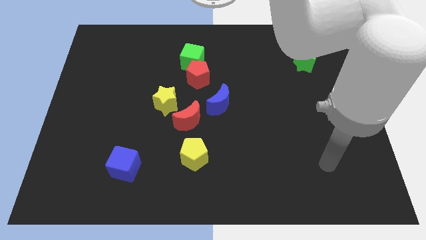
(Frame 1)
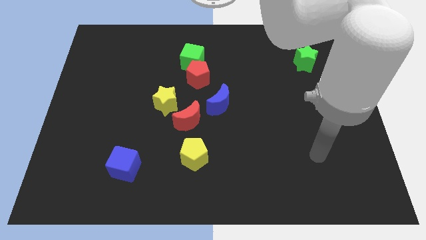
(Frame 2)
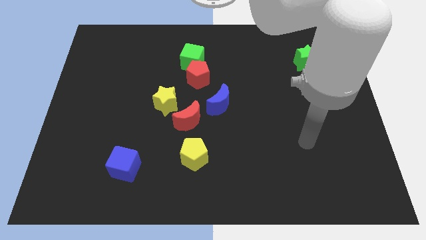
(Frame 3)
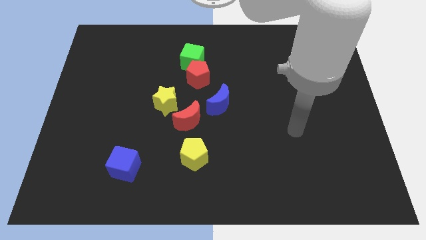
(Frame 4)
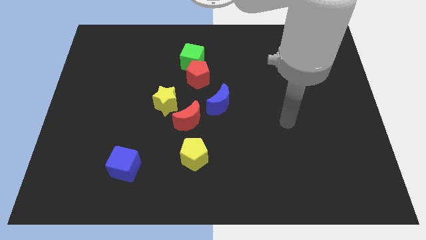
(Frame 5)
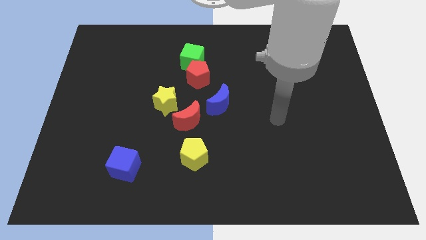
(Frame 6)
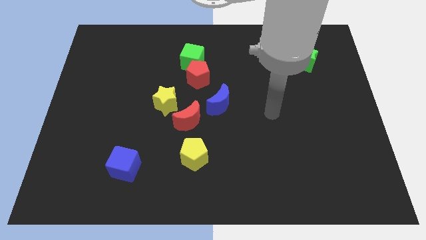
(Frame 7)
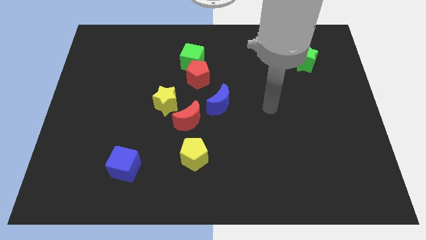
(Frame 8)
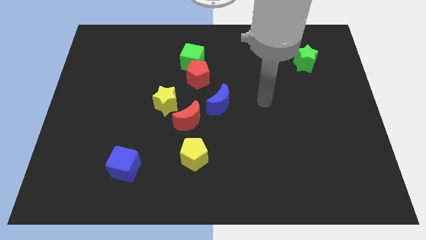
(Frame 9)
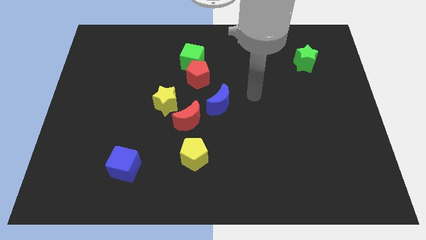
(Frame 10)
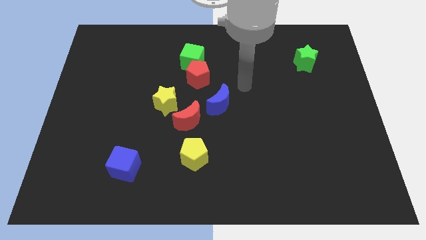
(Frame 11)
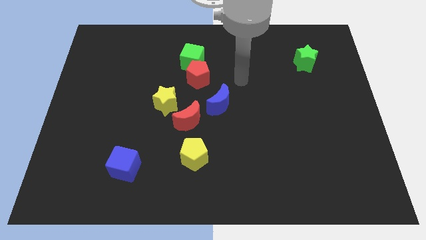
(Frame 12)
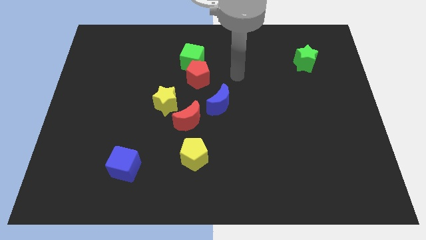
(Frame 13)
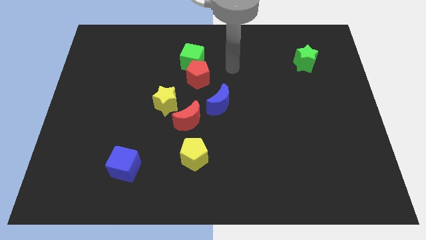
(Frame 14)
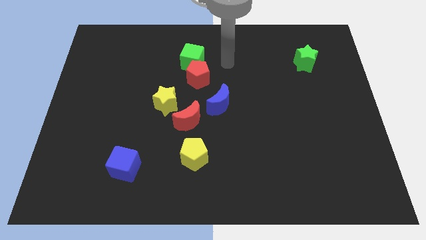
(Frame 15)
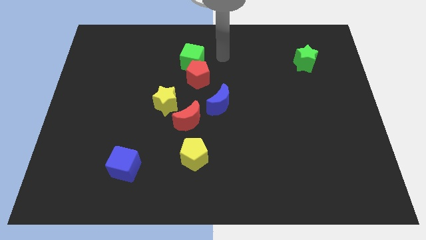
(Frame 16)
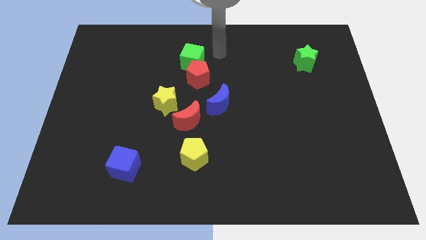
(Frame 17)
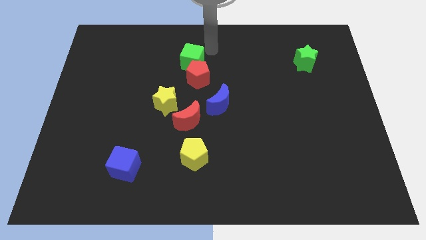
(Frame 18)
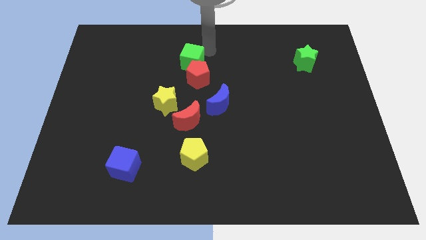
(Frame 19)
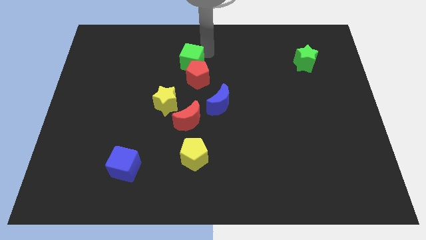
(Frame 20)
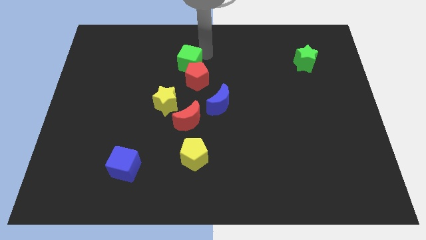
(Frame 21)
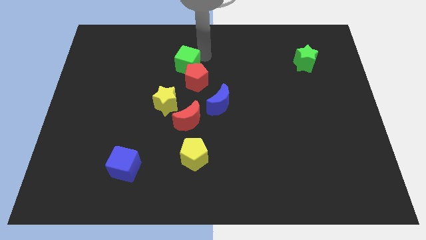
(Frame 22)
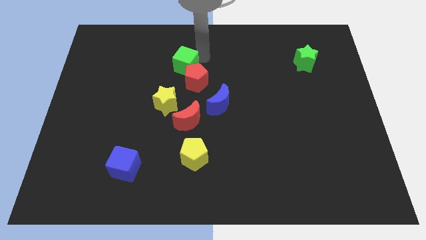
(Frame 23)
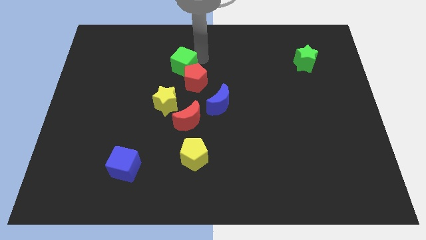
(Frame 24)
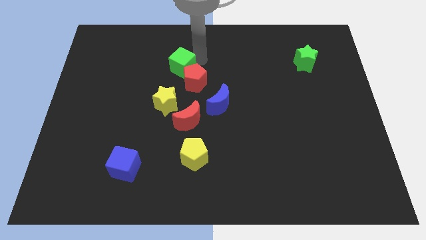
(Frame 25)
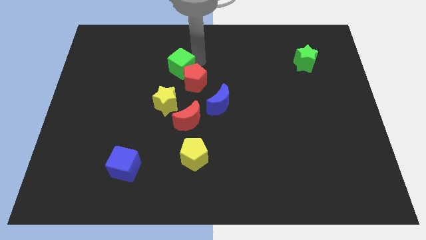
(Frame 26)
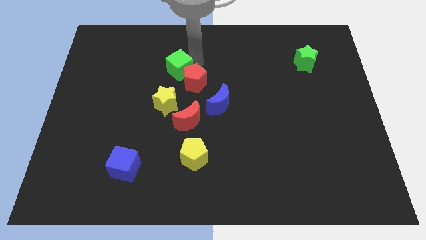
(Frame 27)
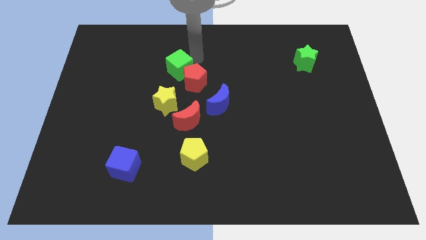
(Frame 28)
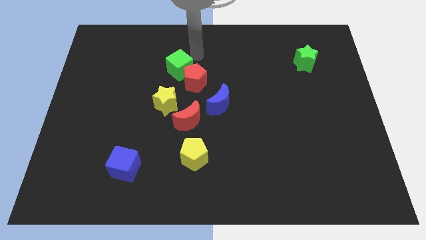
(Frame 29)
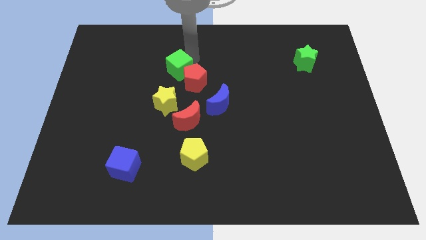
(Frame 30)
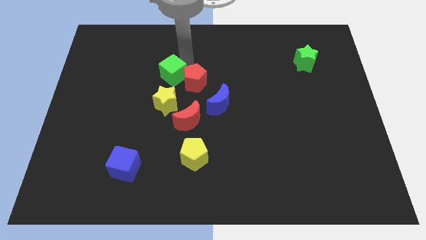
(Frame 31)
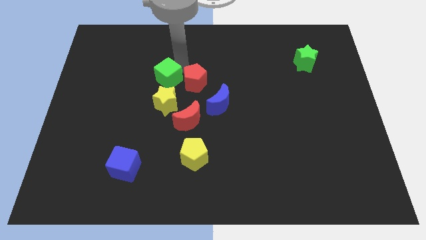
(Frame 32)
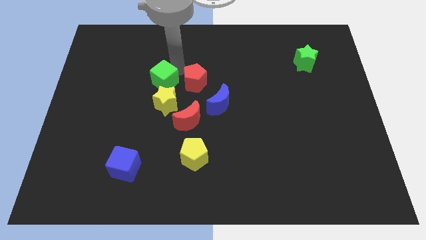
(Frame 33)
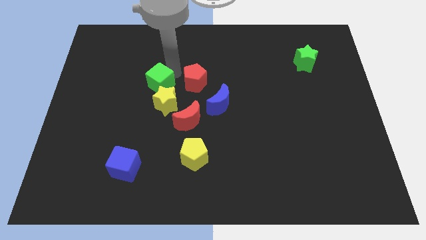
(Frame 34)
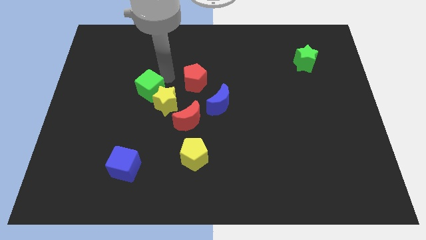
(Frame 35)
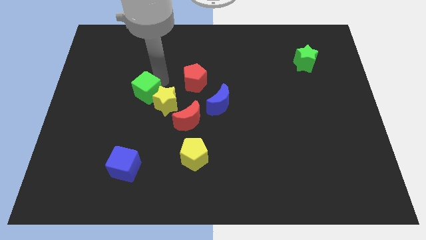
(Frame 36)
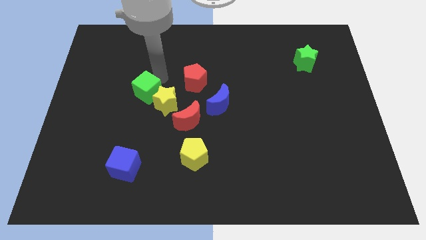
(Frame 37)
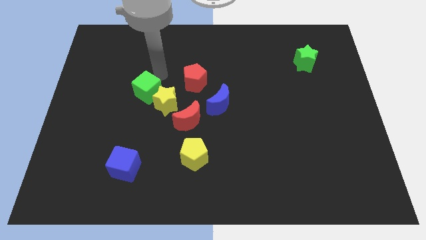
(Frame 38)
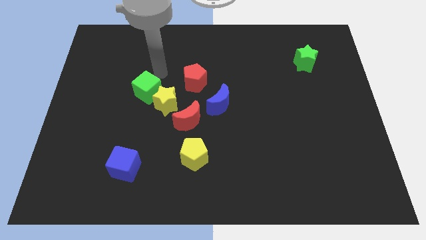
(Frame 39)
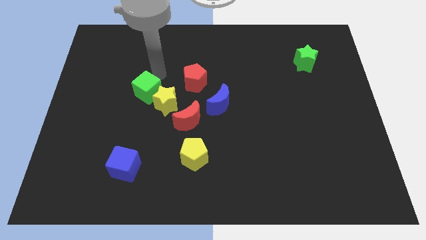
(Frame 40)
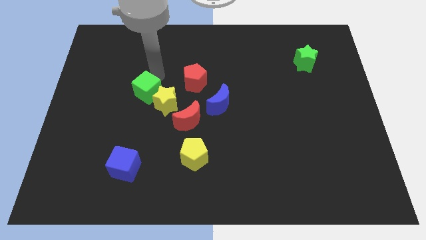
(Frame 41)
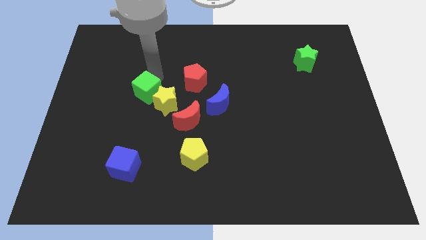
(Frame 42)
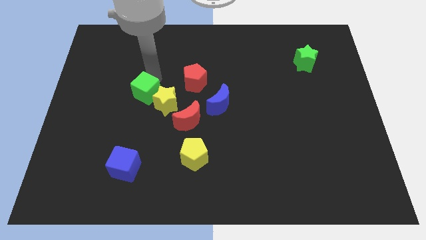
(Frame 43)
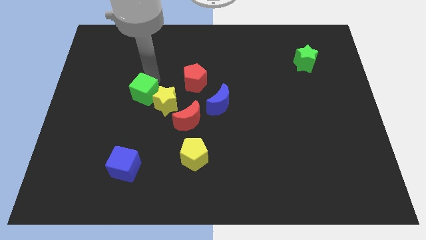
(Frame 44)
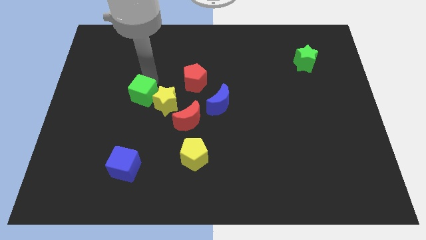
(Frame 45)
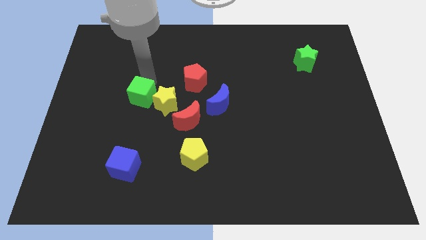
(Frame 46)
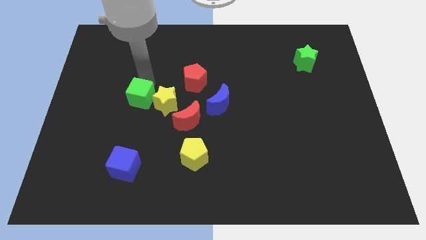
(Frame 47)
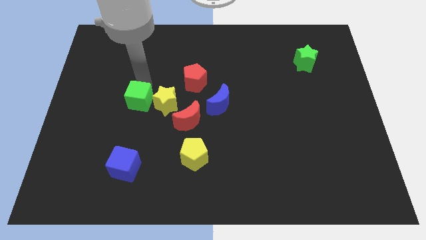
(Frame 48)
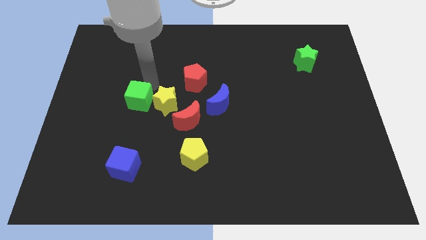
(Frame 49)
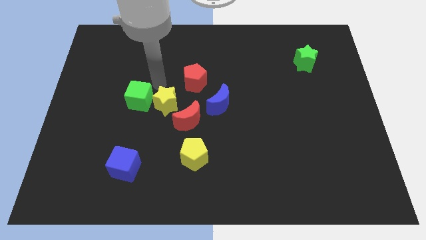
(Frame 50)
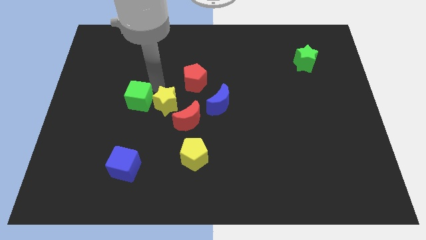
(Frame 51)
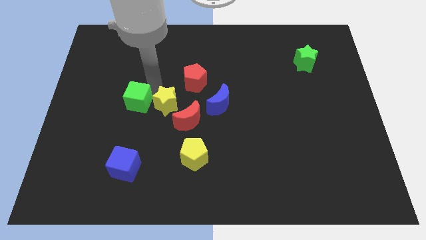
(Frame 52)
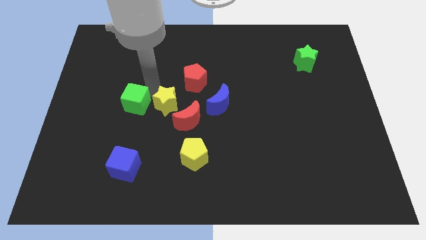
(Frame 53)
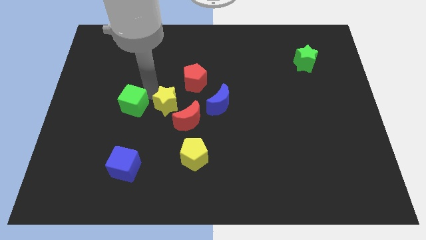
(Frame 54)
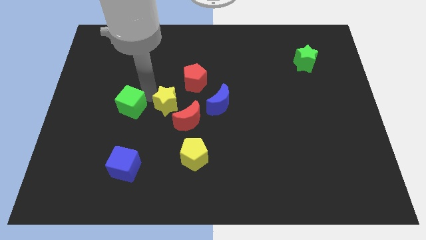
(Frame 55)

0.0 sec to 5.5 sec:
push the green cube downwards and to the left

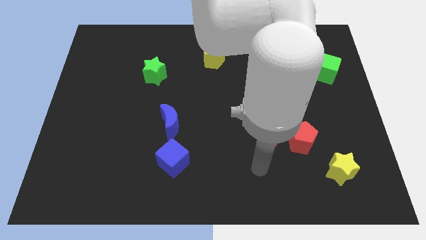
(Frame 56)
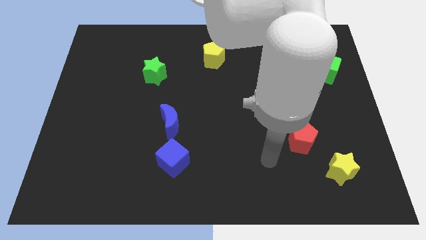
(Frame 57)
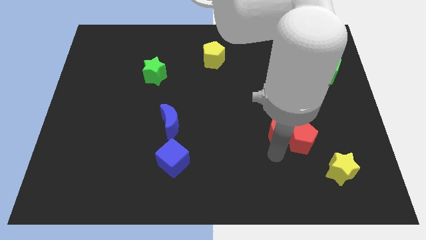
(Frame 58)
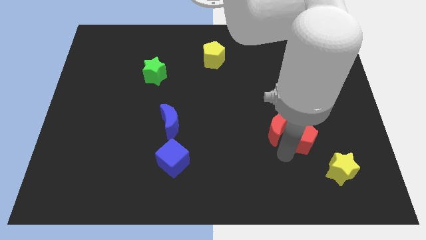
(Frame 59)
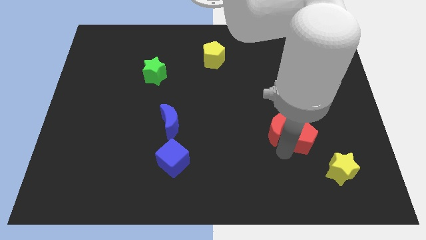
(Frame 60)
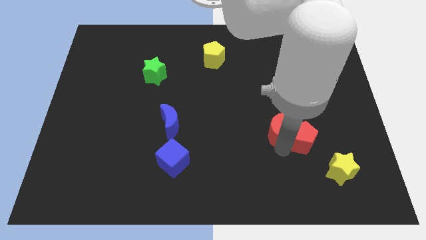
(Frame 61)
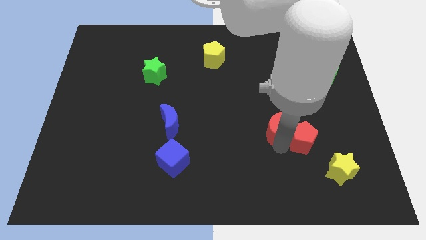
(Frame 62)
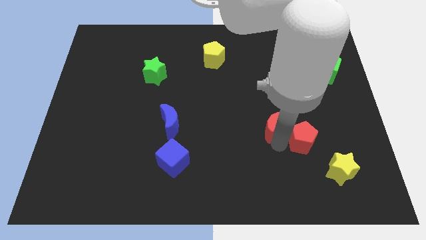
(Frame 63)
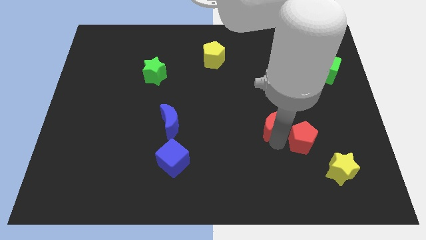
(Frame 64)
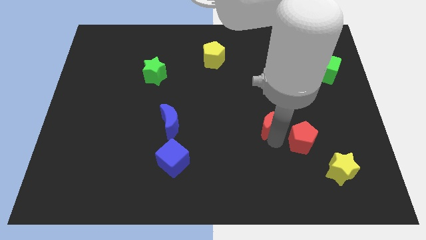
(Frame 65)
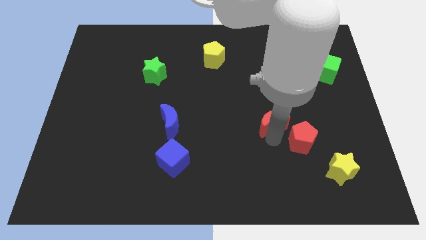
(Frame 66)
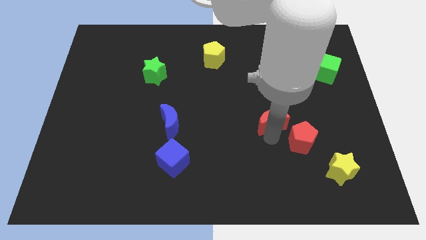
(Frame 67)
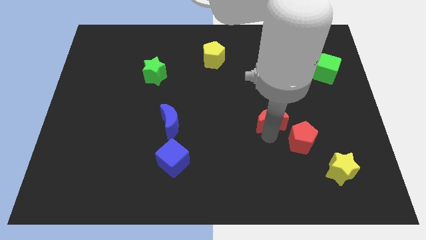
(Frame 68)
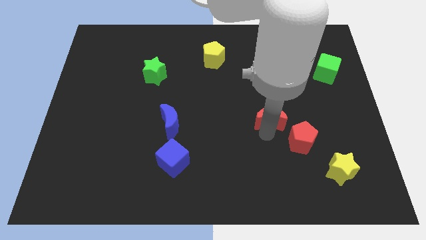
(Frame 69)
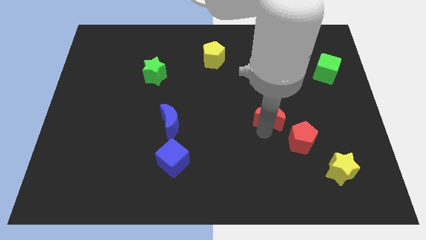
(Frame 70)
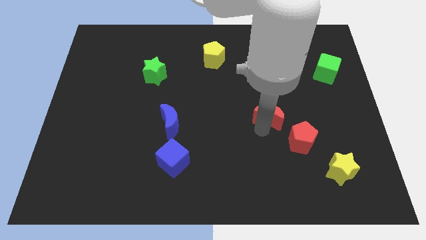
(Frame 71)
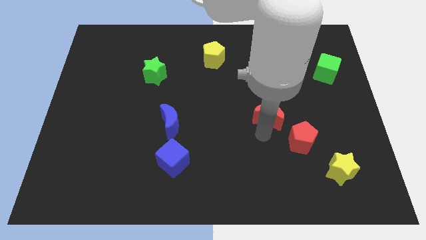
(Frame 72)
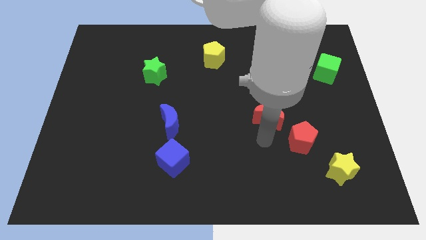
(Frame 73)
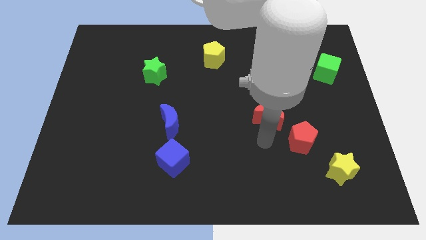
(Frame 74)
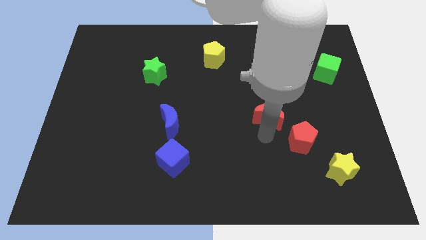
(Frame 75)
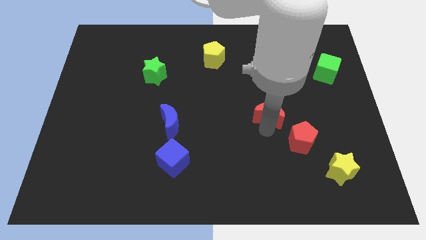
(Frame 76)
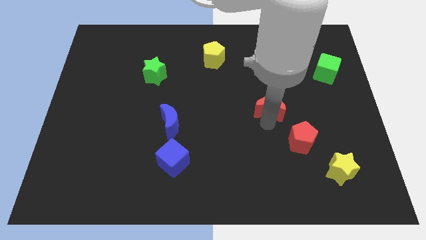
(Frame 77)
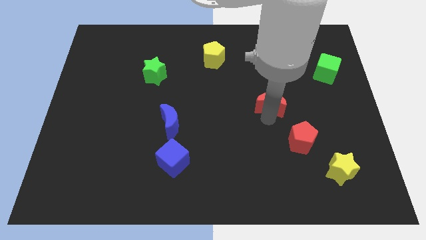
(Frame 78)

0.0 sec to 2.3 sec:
slide the red moon up somewhat

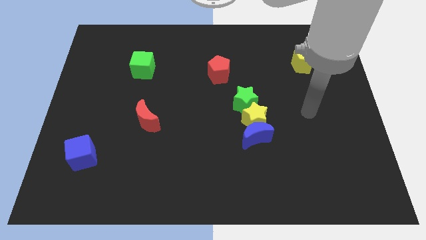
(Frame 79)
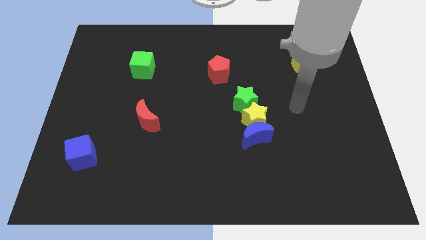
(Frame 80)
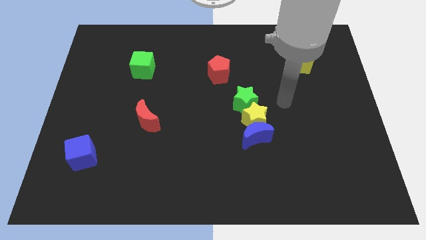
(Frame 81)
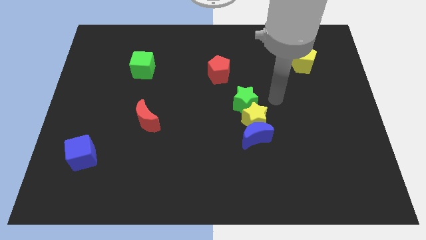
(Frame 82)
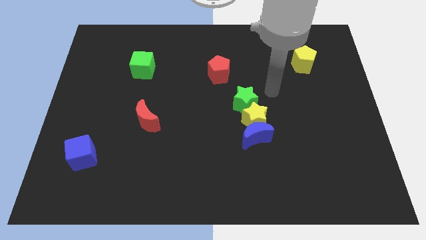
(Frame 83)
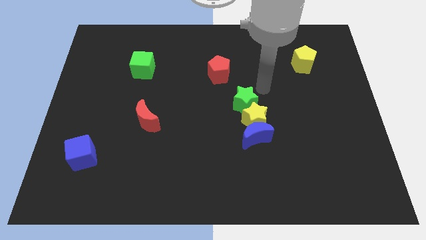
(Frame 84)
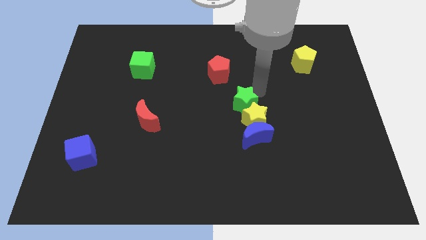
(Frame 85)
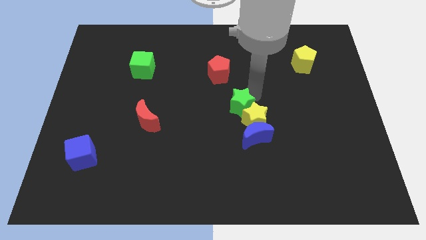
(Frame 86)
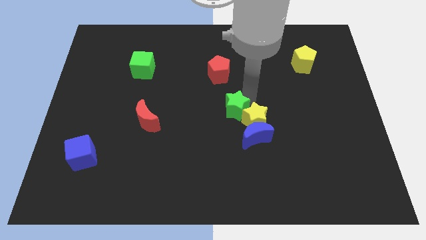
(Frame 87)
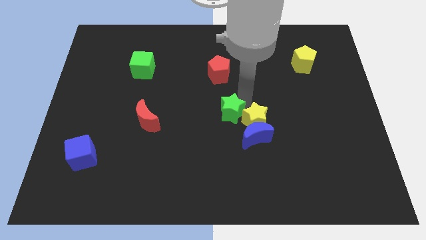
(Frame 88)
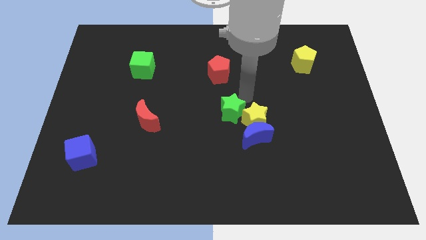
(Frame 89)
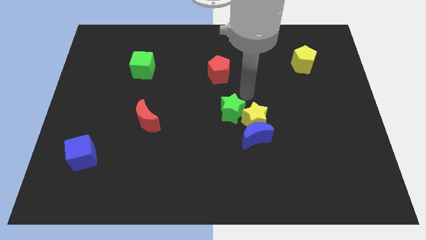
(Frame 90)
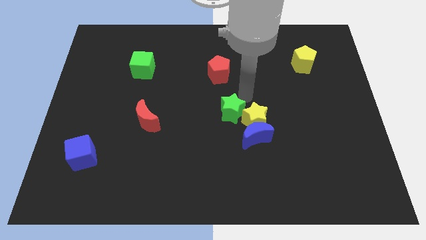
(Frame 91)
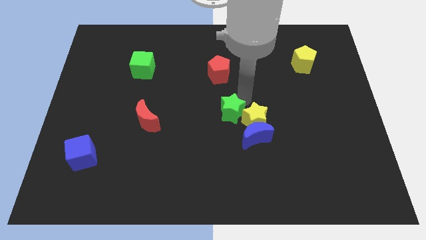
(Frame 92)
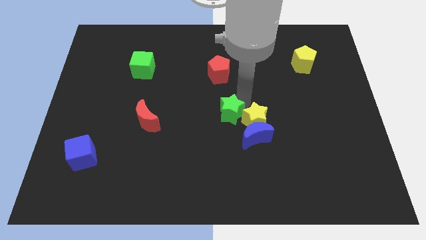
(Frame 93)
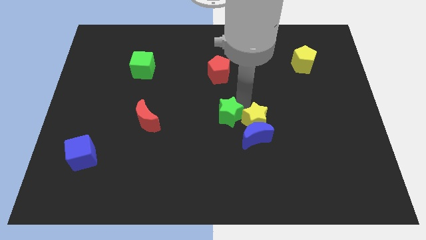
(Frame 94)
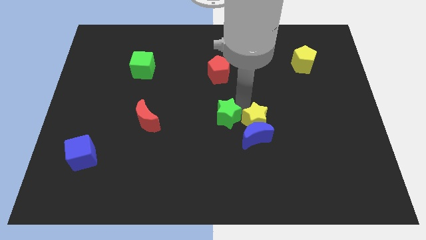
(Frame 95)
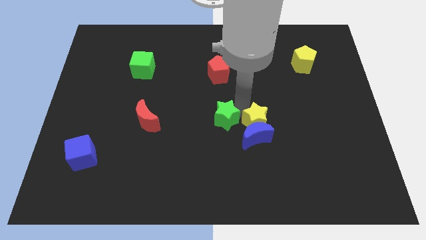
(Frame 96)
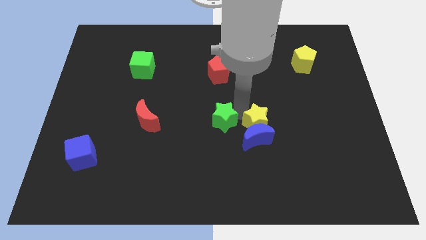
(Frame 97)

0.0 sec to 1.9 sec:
slightly push the green star down and left
